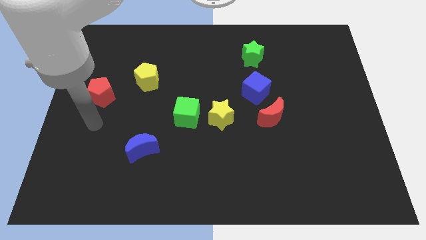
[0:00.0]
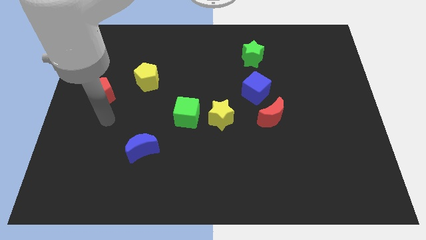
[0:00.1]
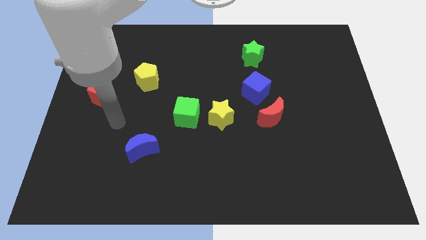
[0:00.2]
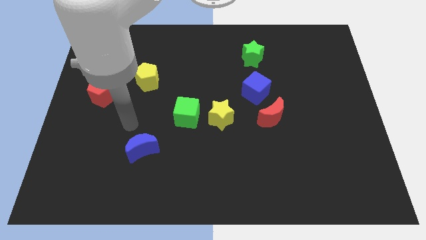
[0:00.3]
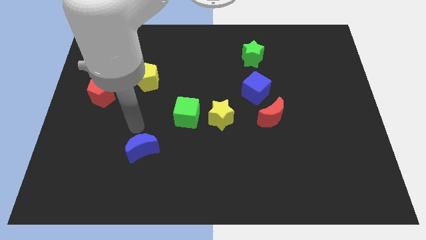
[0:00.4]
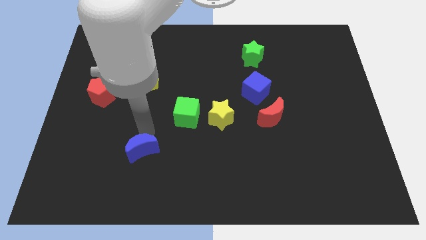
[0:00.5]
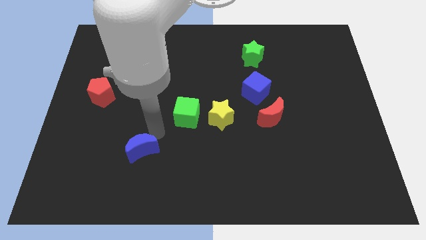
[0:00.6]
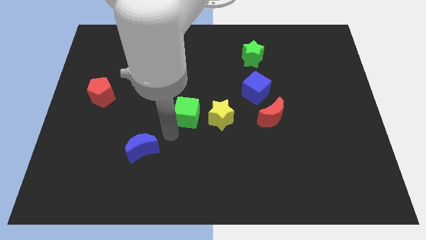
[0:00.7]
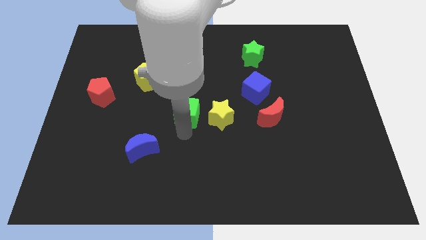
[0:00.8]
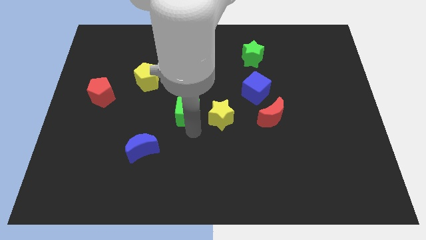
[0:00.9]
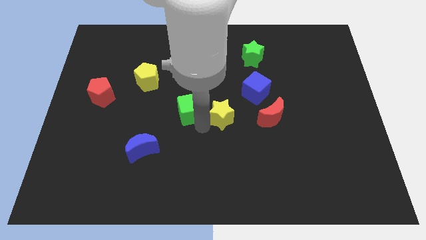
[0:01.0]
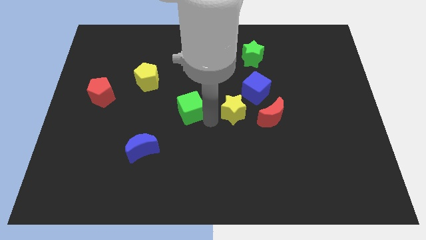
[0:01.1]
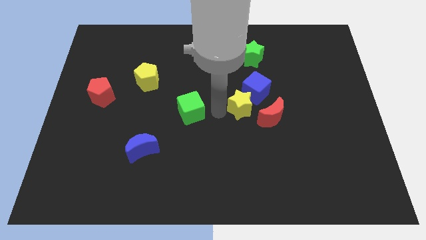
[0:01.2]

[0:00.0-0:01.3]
move the green cube away from the yellow star

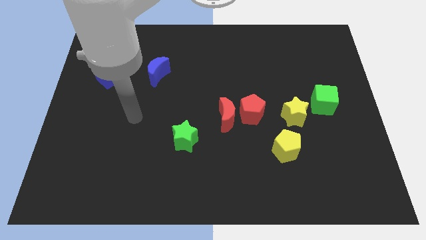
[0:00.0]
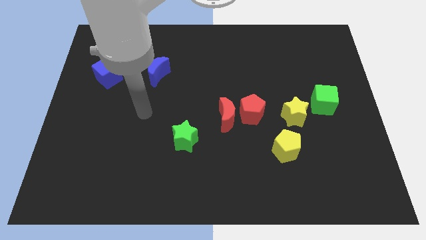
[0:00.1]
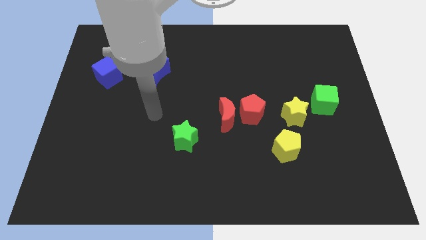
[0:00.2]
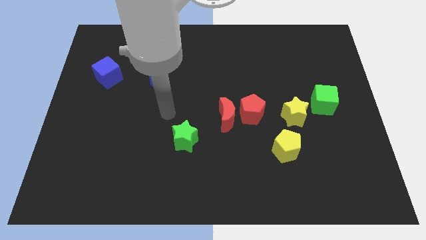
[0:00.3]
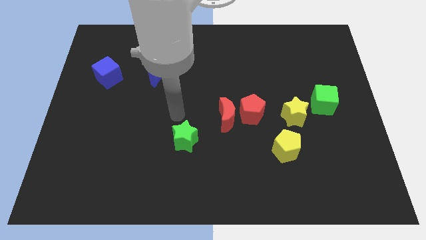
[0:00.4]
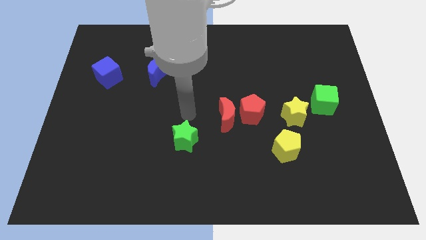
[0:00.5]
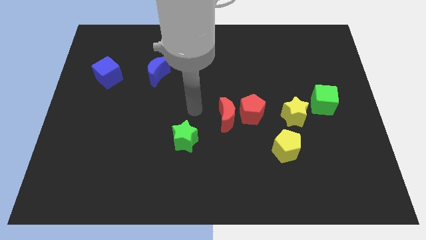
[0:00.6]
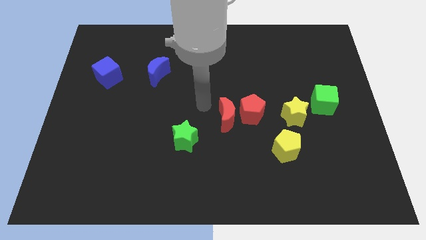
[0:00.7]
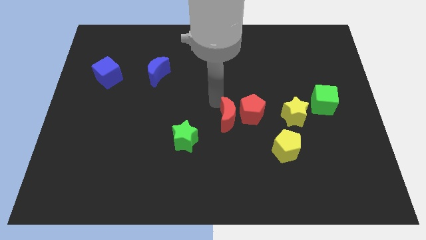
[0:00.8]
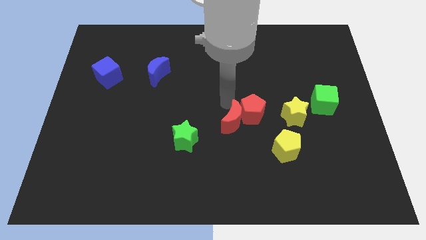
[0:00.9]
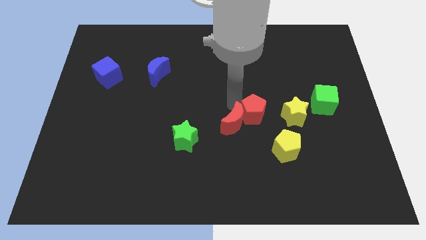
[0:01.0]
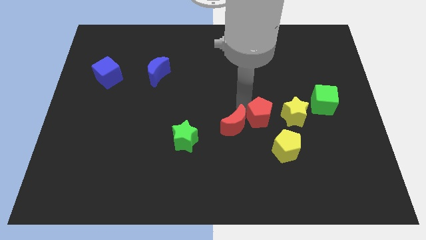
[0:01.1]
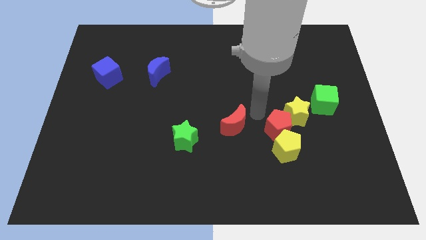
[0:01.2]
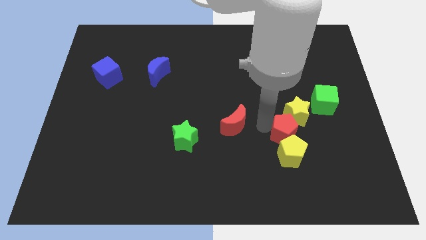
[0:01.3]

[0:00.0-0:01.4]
separate the red moon from the red pentagon

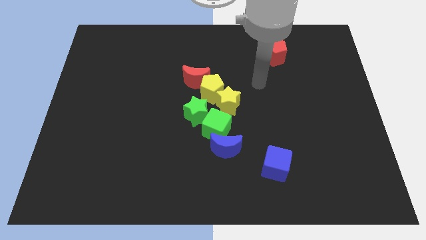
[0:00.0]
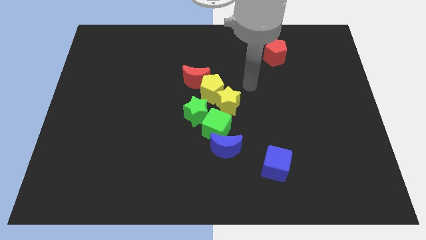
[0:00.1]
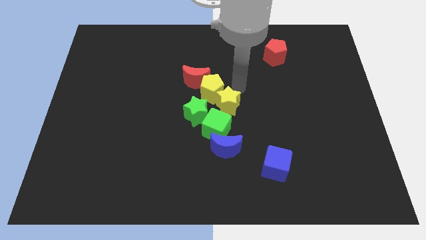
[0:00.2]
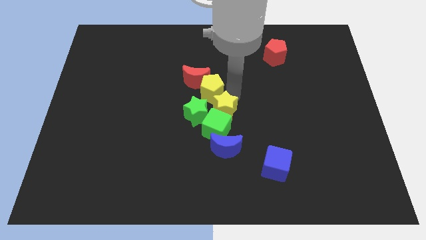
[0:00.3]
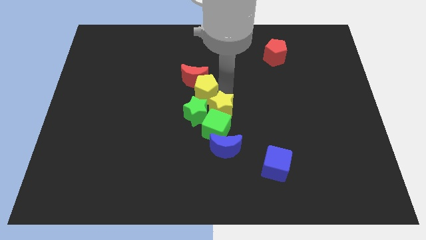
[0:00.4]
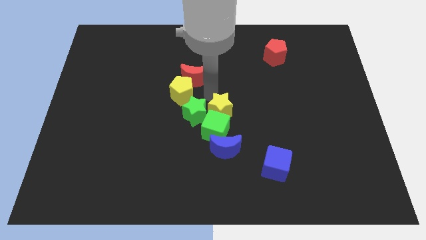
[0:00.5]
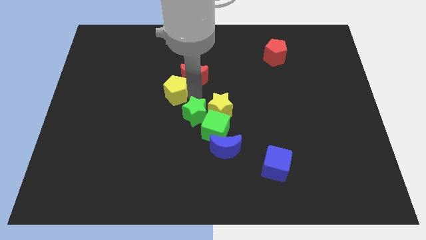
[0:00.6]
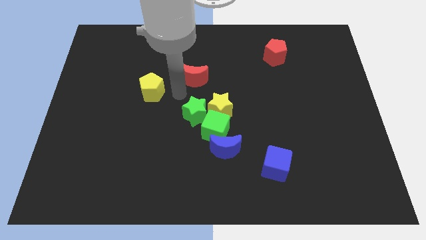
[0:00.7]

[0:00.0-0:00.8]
move the red moon away from the yellow pentagon

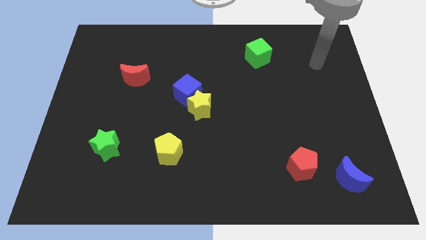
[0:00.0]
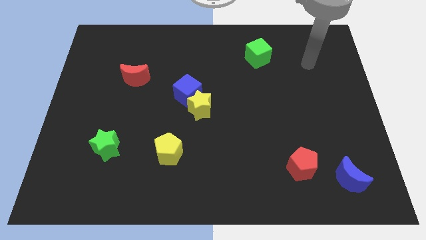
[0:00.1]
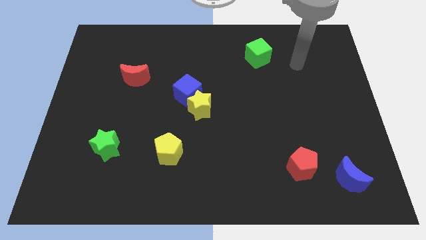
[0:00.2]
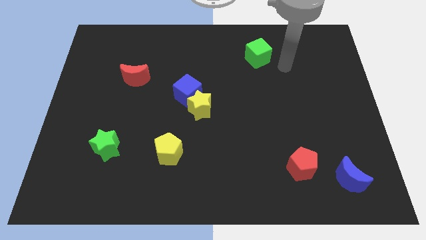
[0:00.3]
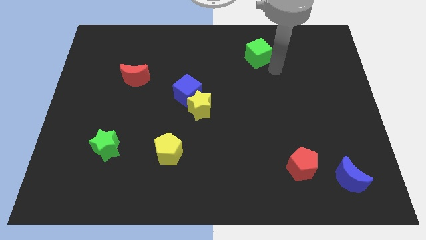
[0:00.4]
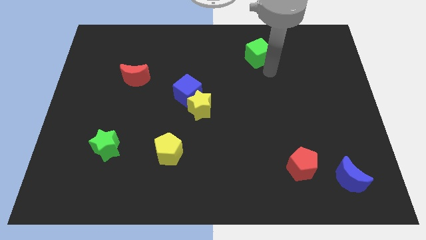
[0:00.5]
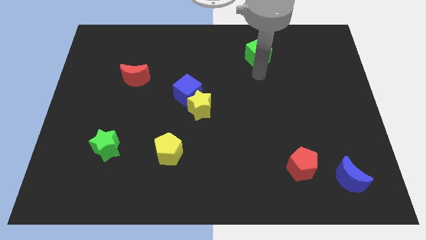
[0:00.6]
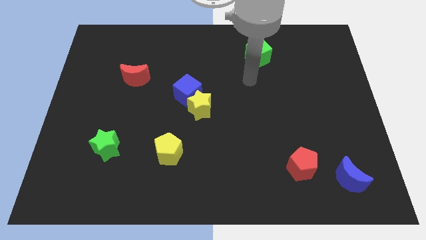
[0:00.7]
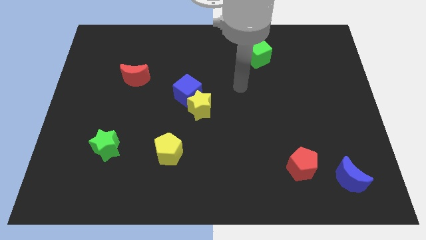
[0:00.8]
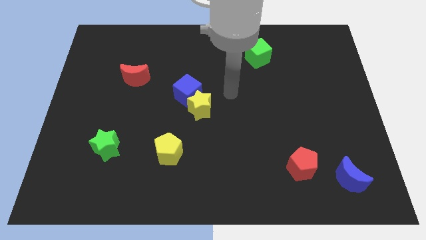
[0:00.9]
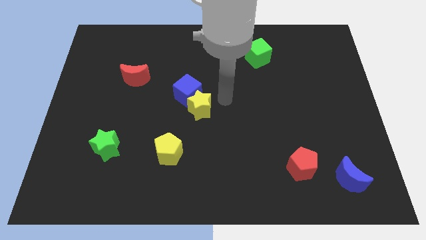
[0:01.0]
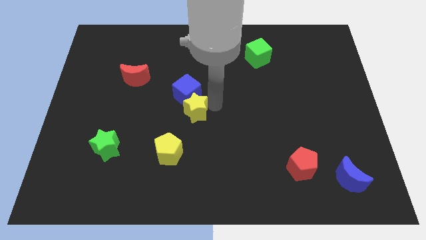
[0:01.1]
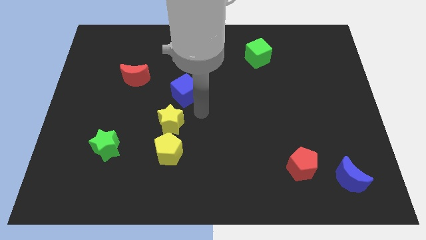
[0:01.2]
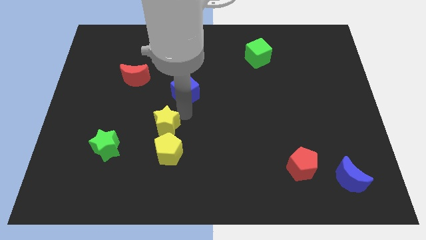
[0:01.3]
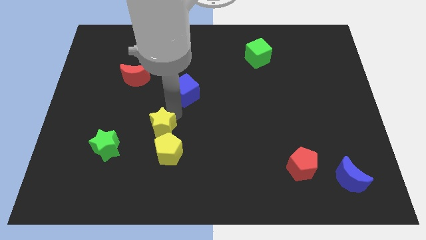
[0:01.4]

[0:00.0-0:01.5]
pull the blue cube apart from the yellow star

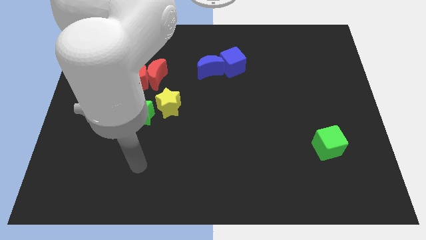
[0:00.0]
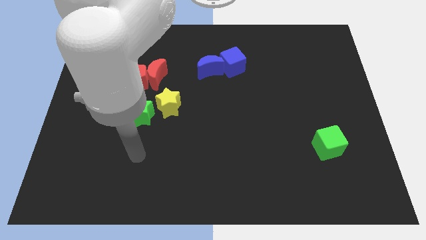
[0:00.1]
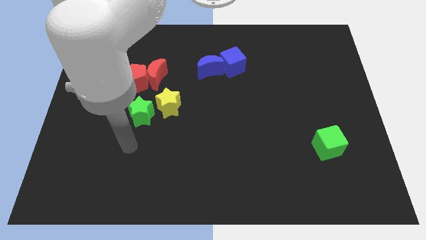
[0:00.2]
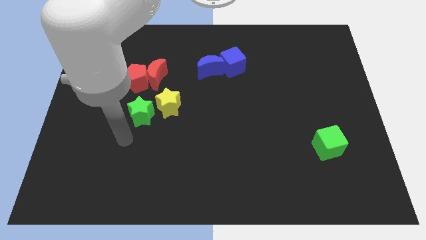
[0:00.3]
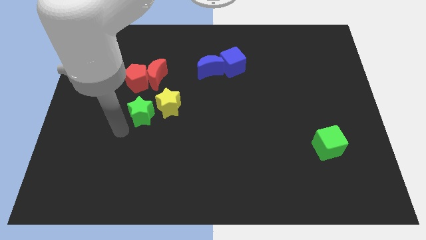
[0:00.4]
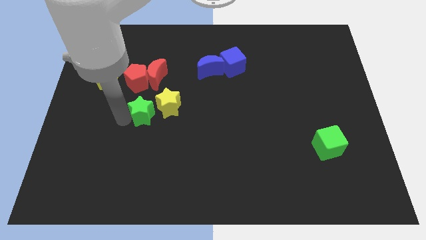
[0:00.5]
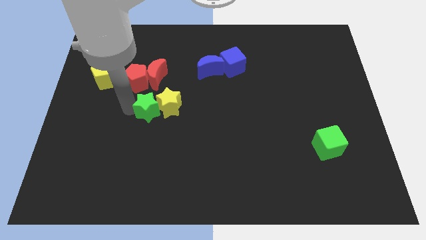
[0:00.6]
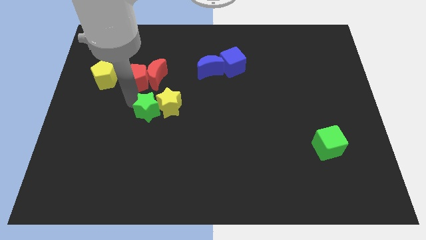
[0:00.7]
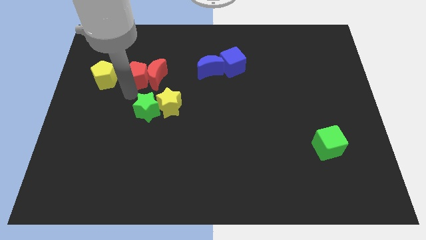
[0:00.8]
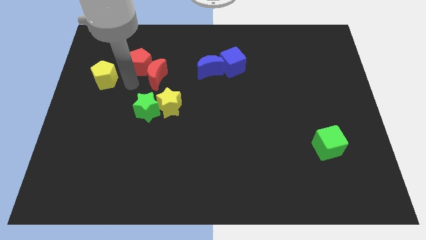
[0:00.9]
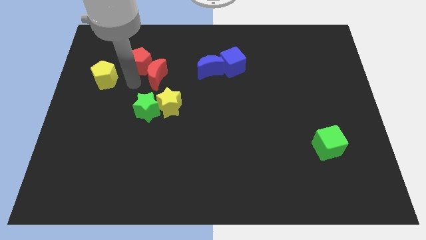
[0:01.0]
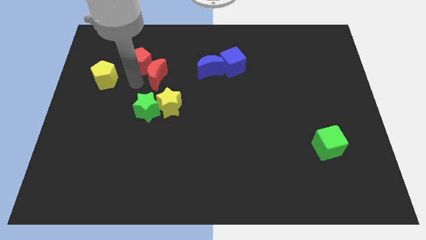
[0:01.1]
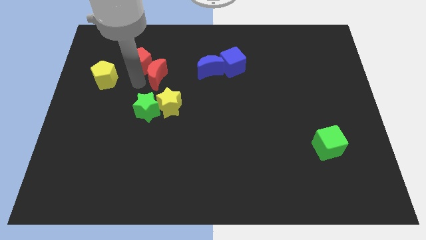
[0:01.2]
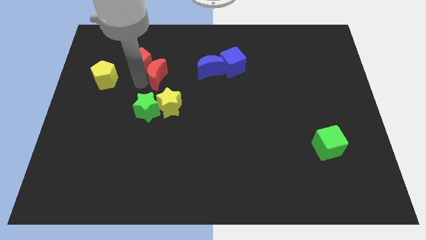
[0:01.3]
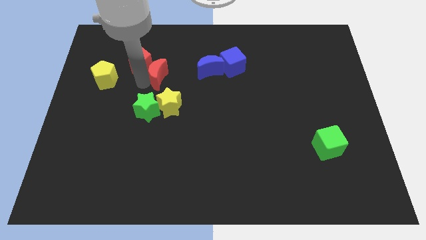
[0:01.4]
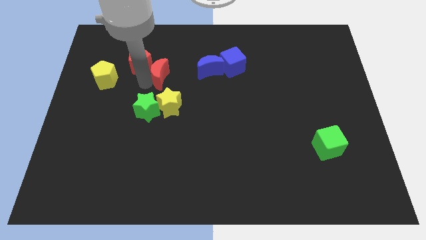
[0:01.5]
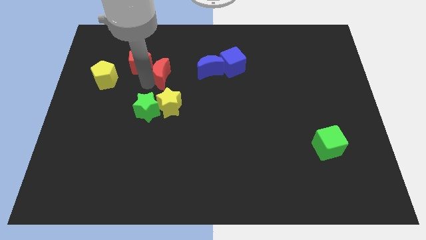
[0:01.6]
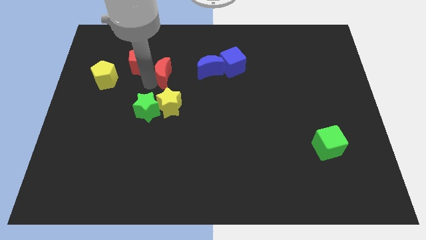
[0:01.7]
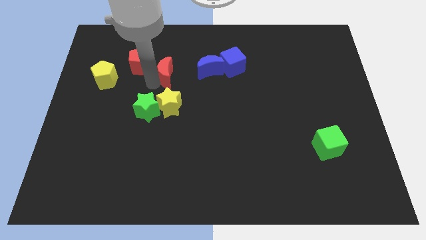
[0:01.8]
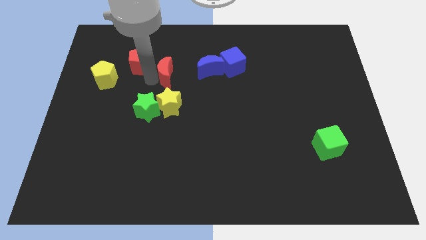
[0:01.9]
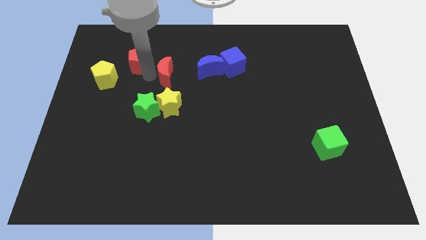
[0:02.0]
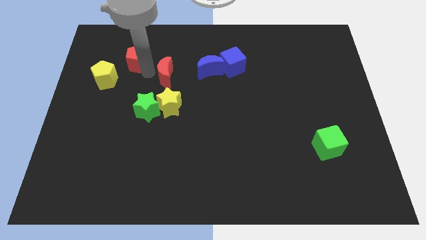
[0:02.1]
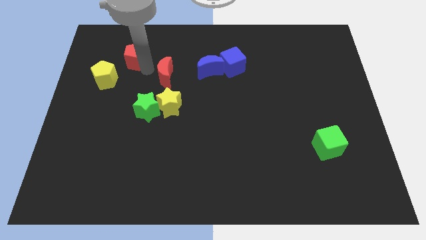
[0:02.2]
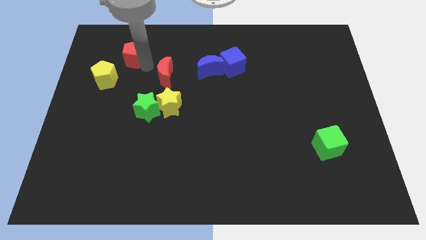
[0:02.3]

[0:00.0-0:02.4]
pull the red moon apart from the red pentagon

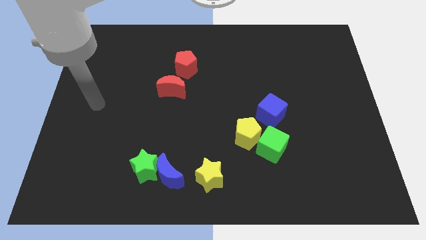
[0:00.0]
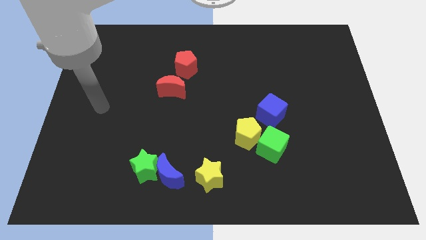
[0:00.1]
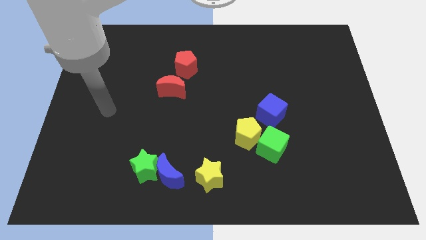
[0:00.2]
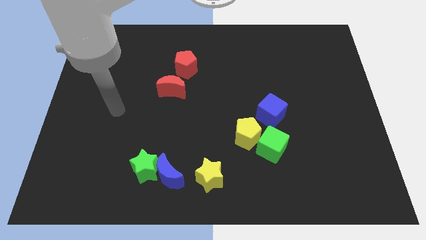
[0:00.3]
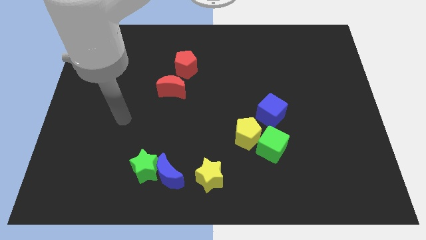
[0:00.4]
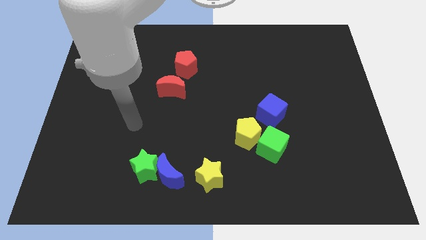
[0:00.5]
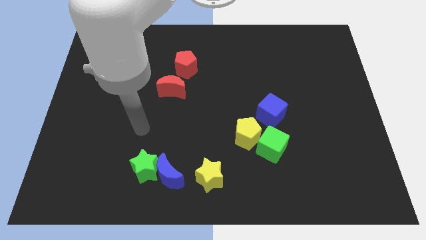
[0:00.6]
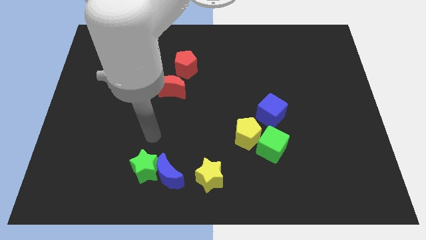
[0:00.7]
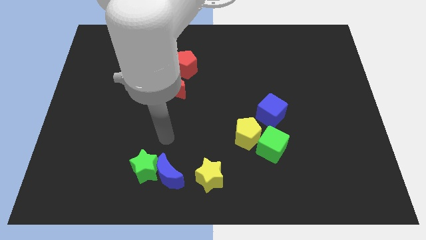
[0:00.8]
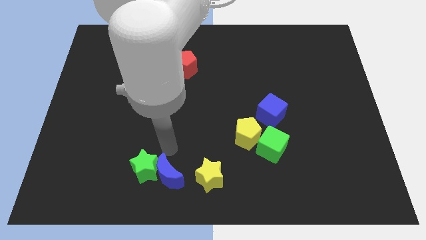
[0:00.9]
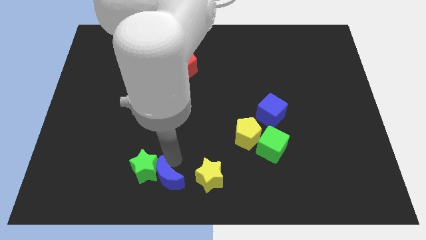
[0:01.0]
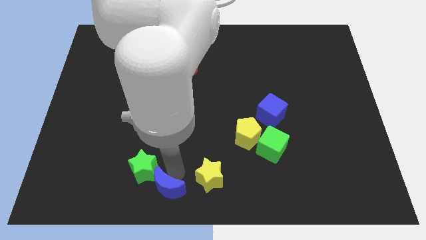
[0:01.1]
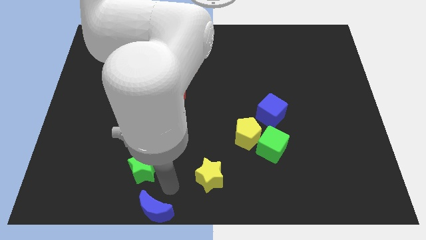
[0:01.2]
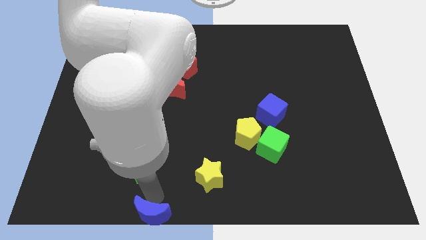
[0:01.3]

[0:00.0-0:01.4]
separate the green star from the blue moon

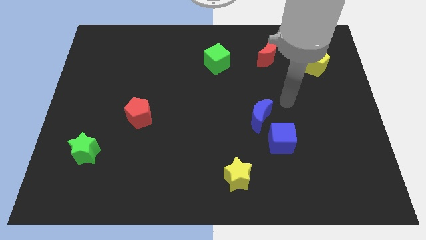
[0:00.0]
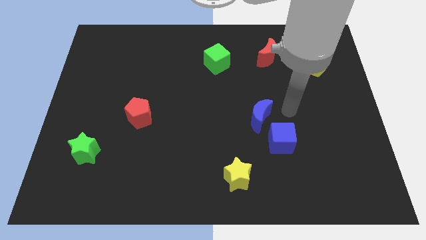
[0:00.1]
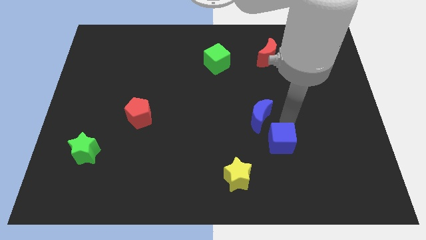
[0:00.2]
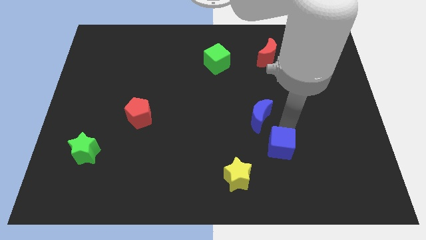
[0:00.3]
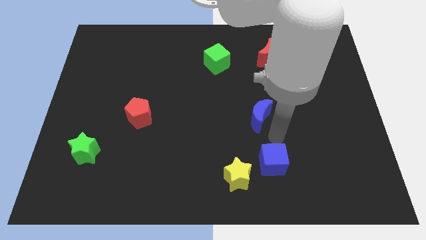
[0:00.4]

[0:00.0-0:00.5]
move the blue moon away from the blue cube
